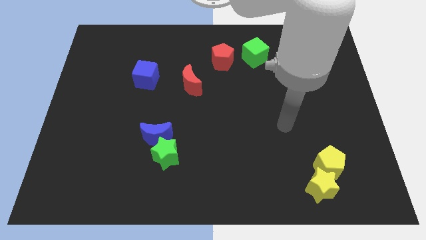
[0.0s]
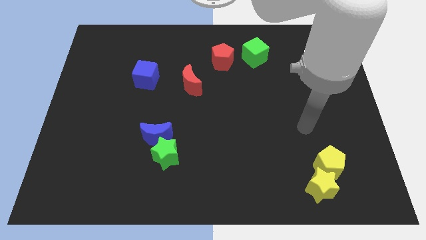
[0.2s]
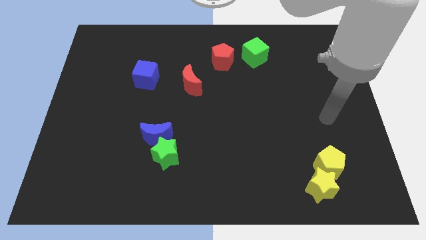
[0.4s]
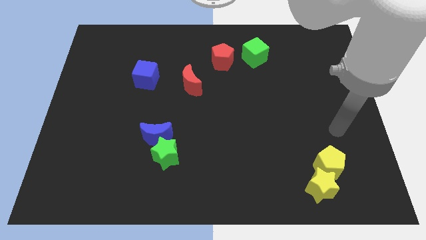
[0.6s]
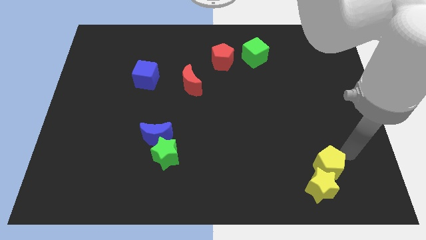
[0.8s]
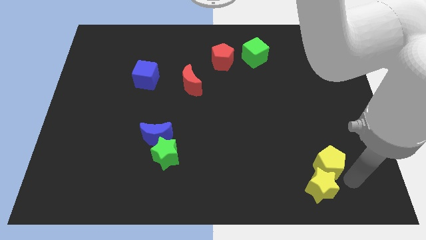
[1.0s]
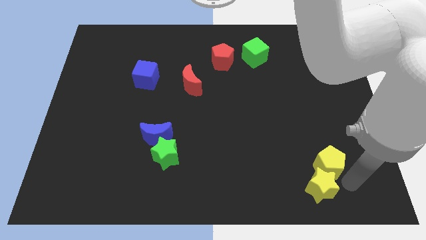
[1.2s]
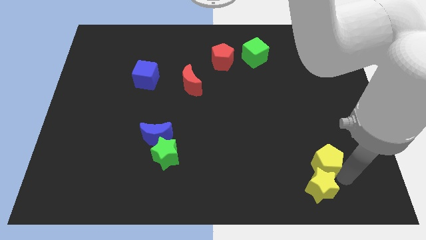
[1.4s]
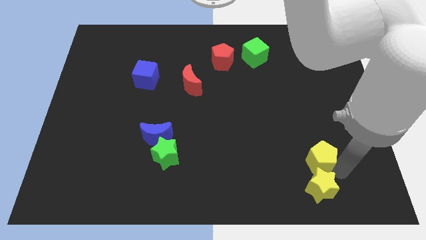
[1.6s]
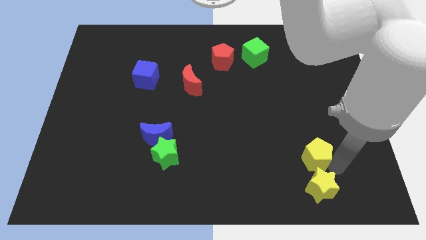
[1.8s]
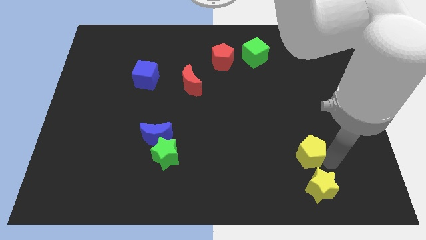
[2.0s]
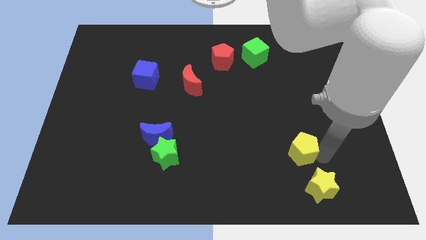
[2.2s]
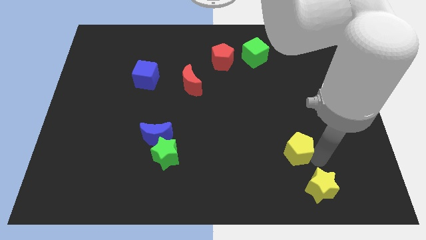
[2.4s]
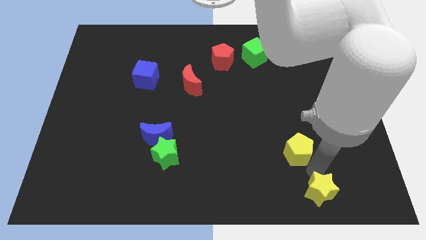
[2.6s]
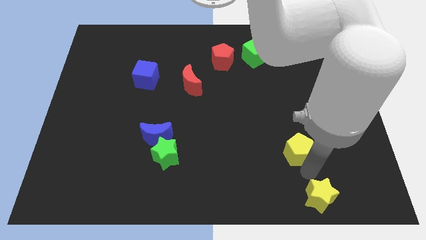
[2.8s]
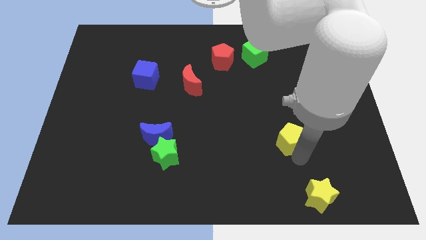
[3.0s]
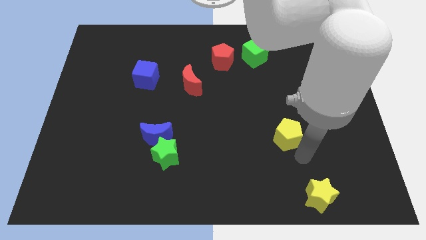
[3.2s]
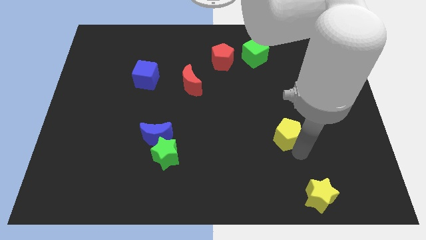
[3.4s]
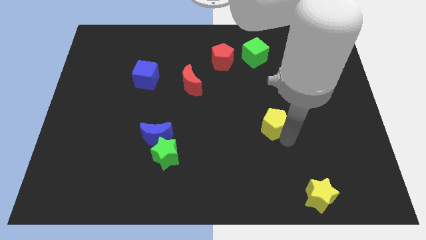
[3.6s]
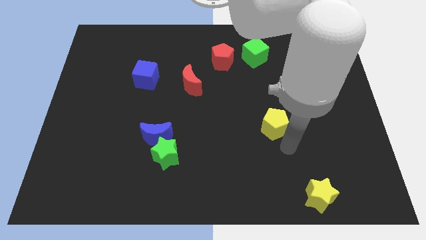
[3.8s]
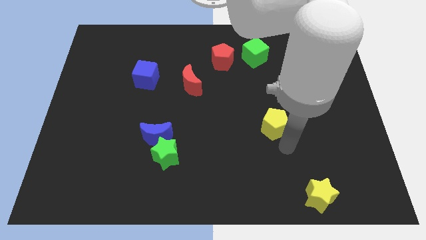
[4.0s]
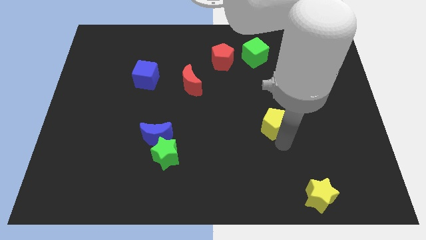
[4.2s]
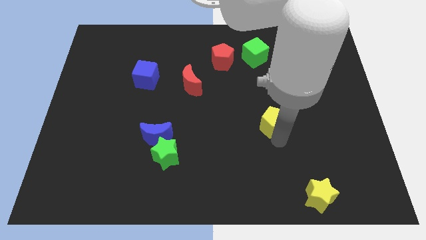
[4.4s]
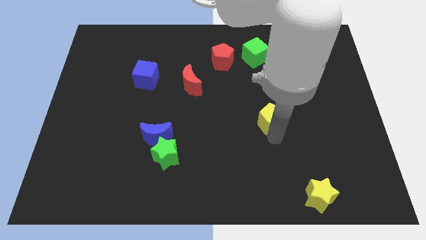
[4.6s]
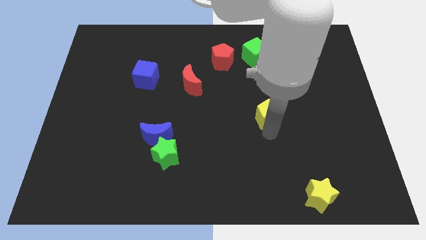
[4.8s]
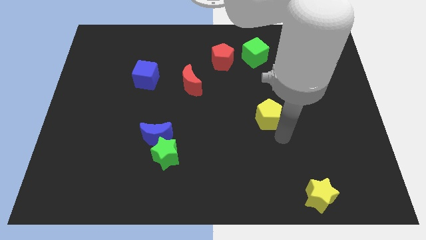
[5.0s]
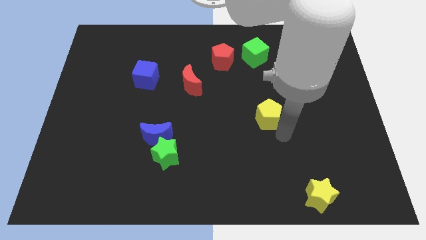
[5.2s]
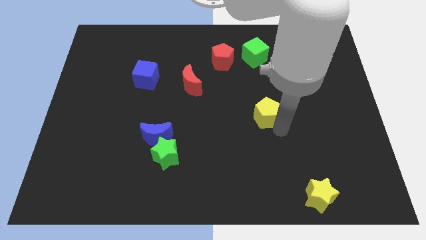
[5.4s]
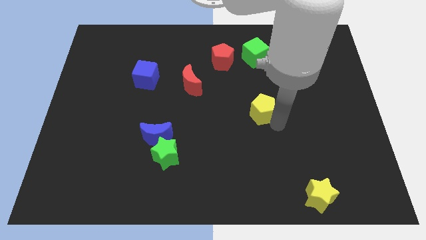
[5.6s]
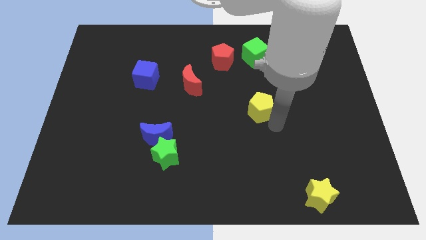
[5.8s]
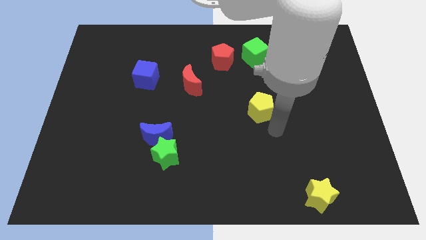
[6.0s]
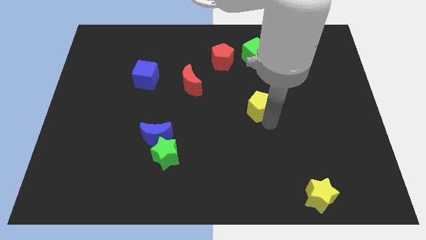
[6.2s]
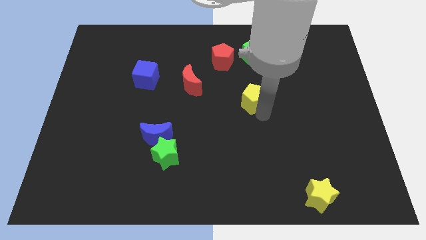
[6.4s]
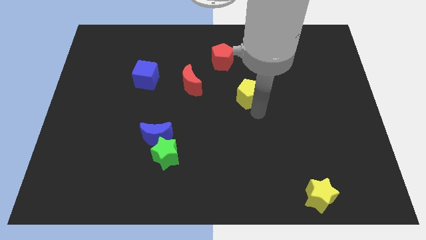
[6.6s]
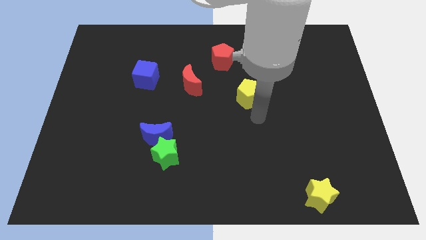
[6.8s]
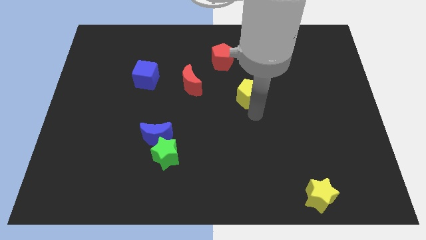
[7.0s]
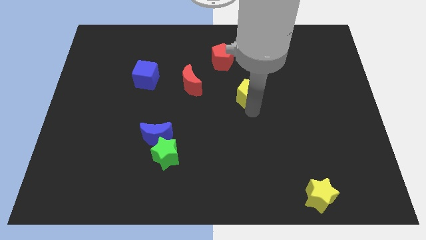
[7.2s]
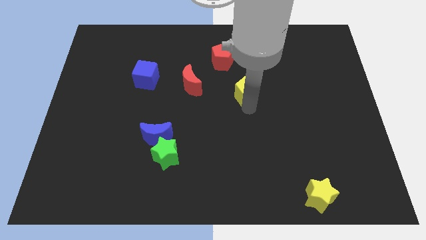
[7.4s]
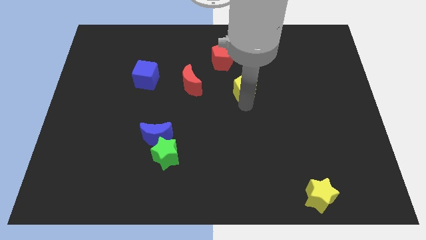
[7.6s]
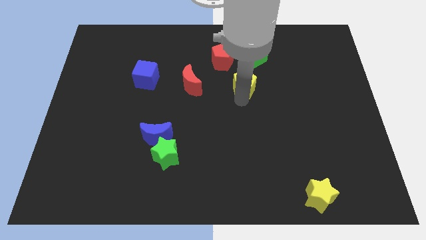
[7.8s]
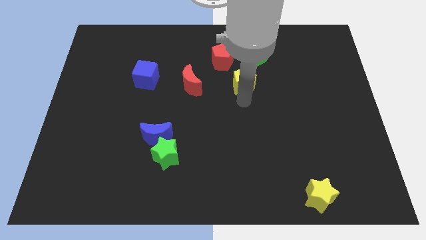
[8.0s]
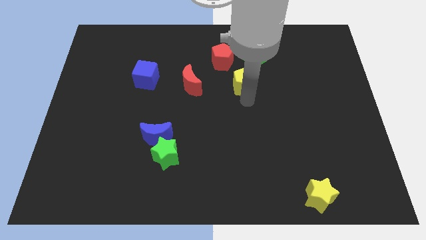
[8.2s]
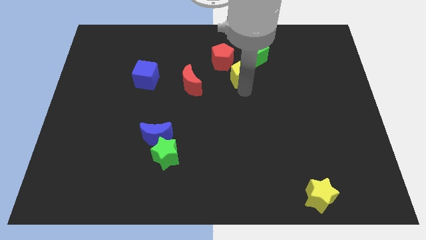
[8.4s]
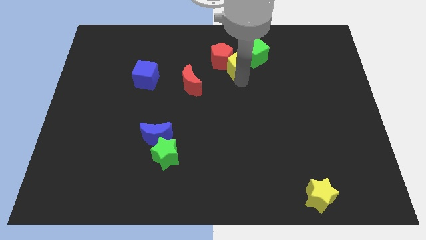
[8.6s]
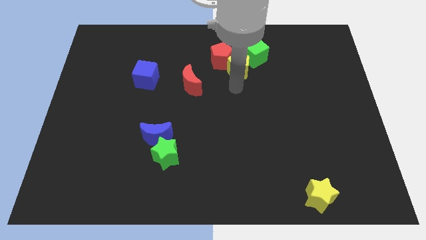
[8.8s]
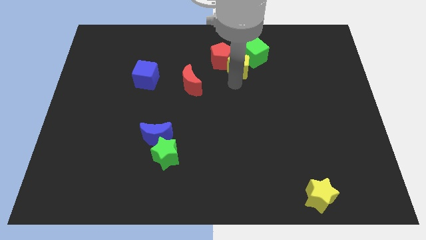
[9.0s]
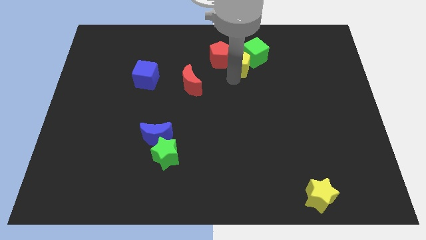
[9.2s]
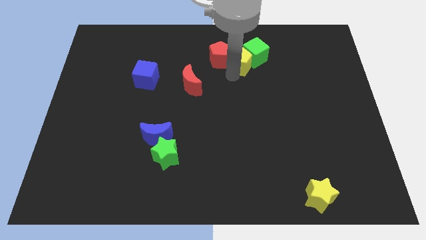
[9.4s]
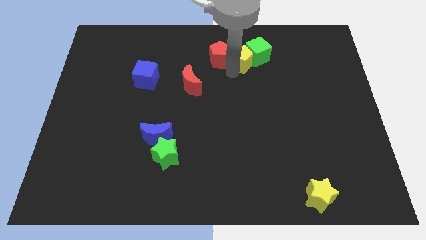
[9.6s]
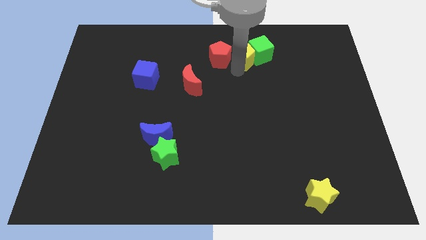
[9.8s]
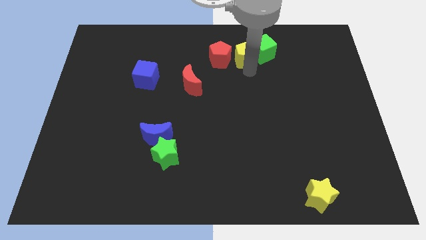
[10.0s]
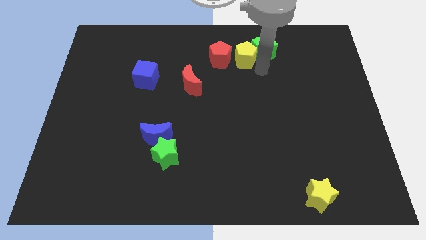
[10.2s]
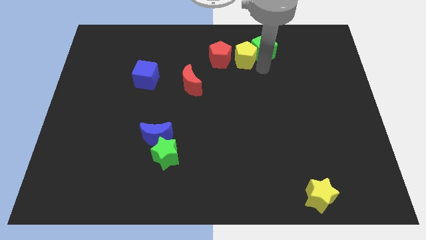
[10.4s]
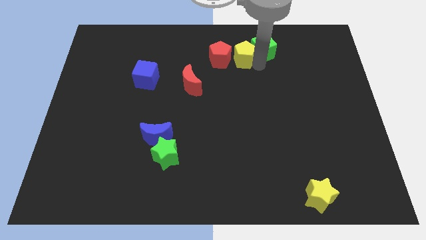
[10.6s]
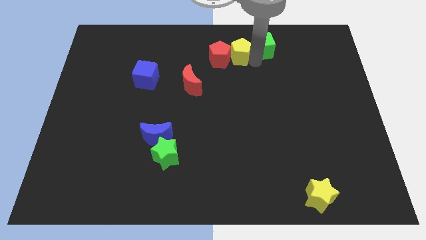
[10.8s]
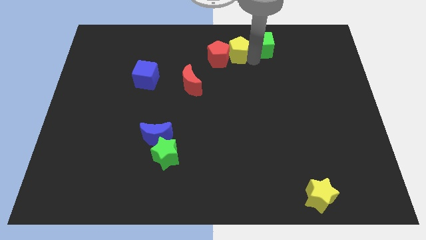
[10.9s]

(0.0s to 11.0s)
push the yellow pentagon to the top
